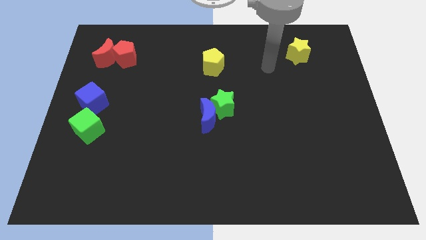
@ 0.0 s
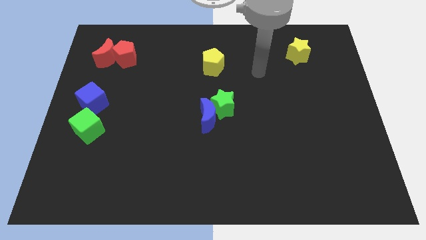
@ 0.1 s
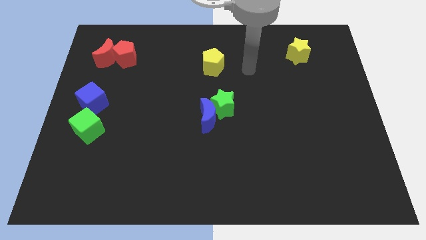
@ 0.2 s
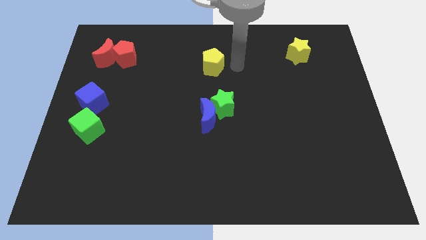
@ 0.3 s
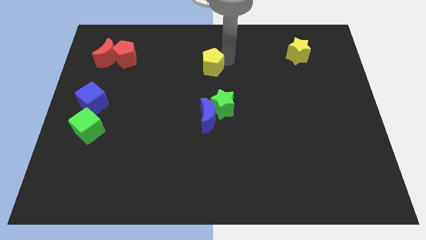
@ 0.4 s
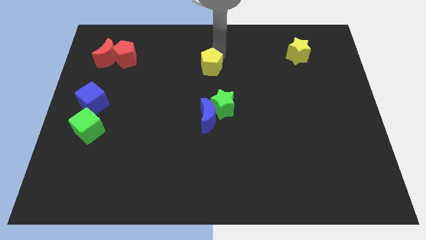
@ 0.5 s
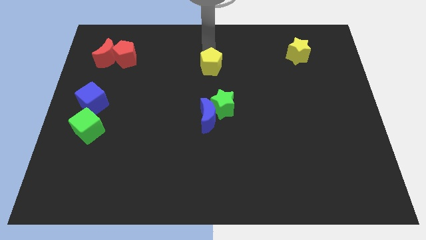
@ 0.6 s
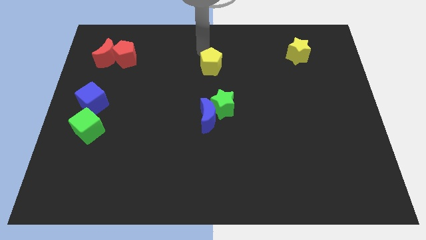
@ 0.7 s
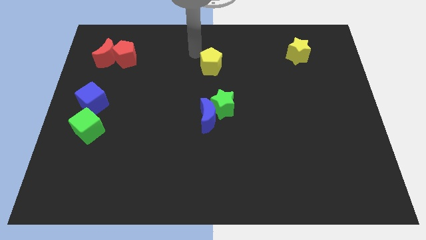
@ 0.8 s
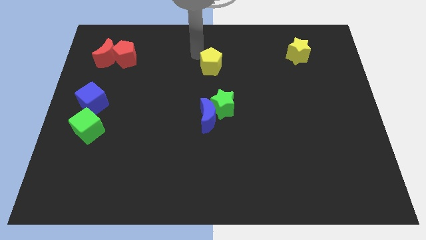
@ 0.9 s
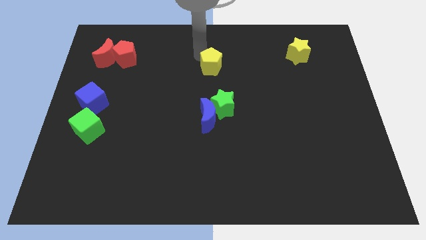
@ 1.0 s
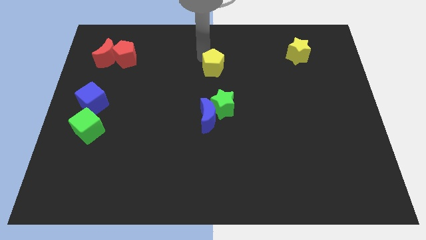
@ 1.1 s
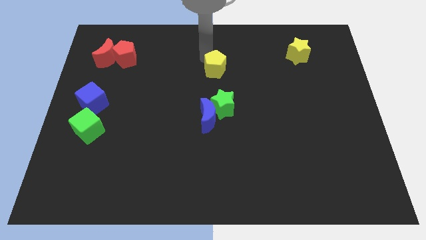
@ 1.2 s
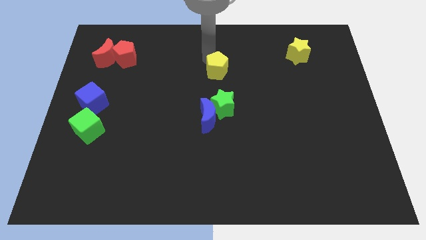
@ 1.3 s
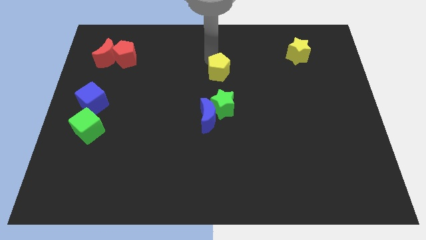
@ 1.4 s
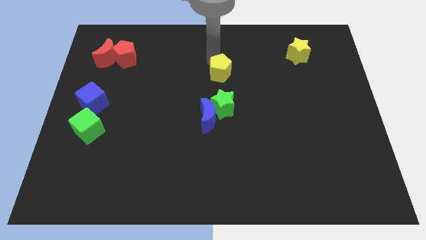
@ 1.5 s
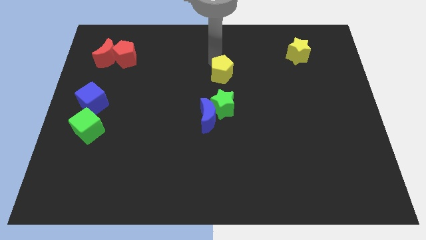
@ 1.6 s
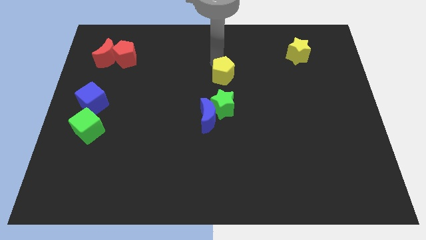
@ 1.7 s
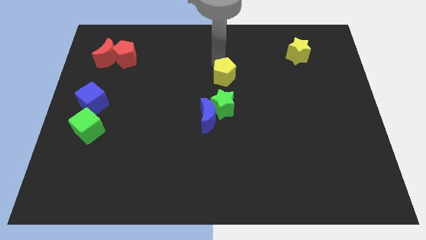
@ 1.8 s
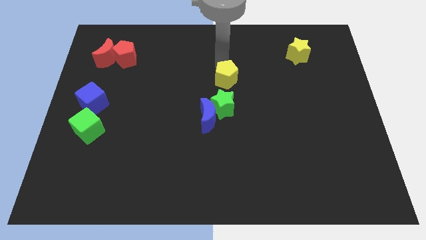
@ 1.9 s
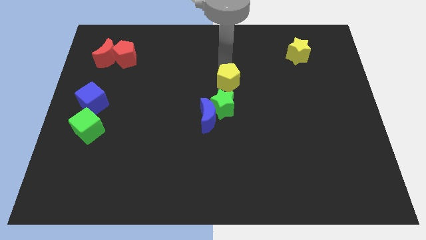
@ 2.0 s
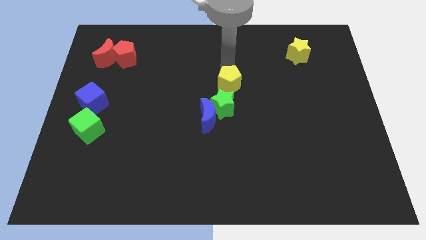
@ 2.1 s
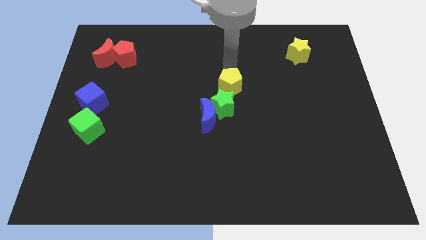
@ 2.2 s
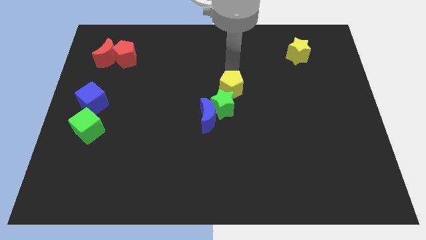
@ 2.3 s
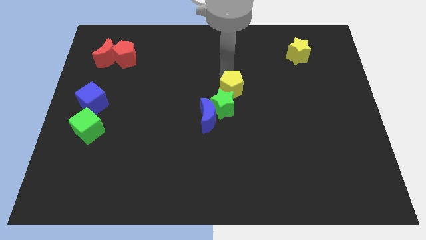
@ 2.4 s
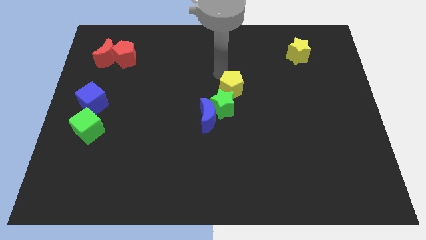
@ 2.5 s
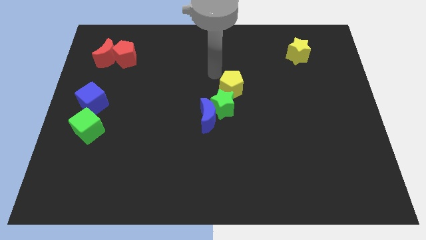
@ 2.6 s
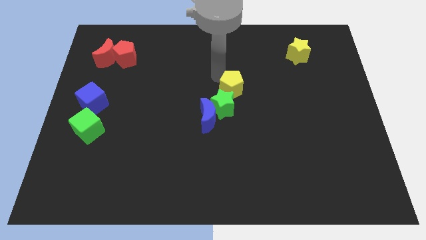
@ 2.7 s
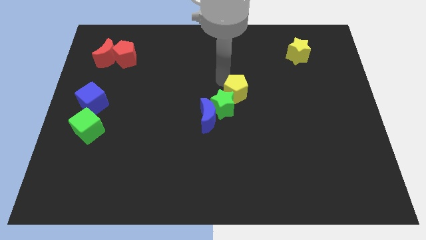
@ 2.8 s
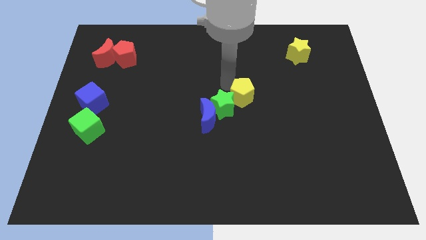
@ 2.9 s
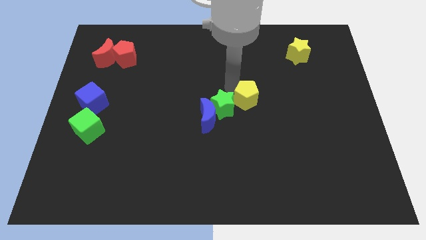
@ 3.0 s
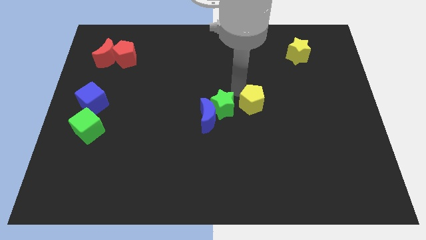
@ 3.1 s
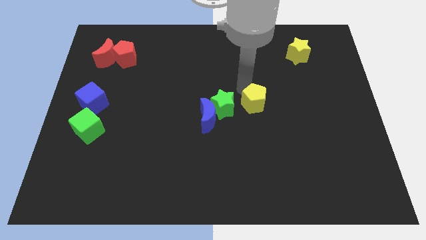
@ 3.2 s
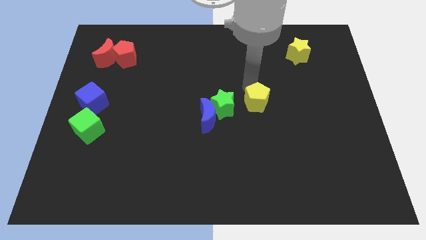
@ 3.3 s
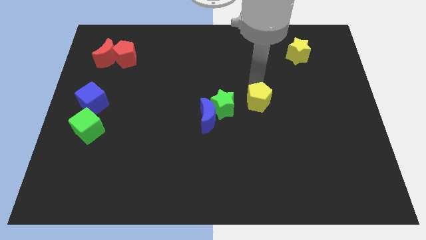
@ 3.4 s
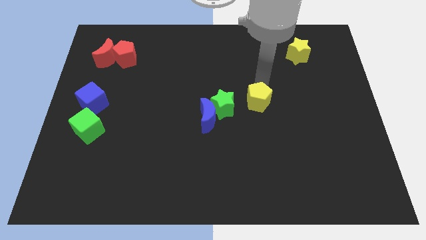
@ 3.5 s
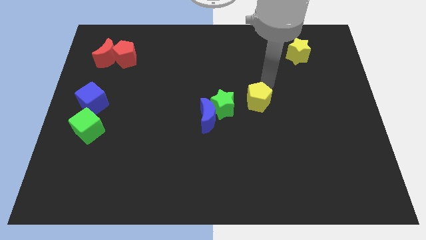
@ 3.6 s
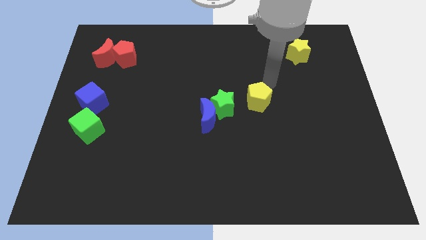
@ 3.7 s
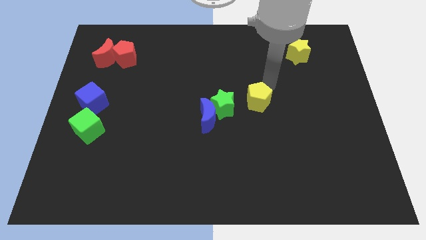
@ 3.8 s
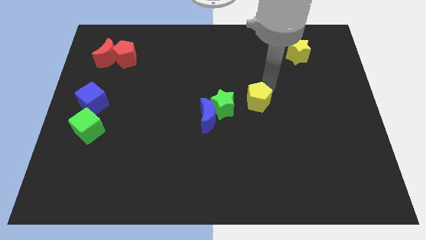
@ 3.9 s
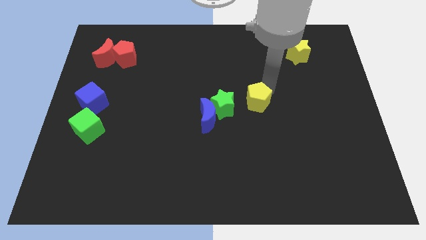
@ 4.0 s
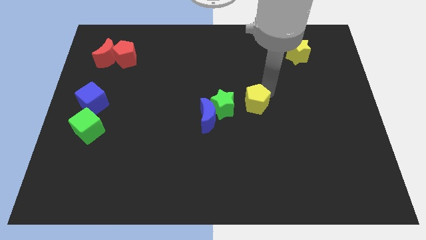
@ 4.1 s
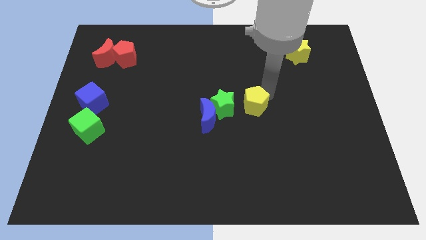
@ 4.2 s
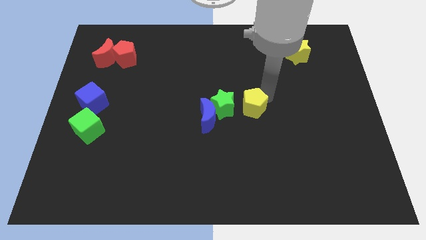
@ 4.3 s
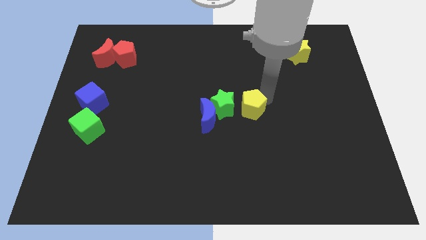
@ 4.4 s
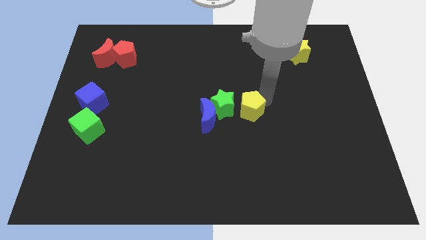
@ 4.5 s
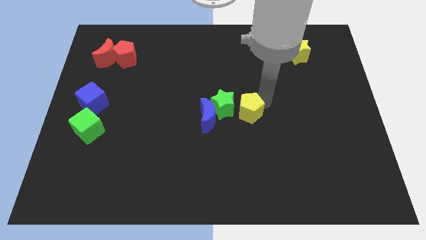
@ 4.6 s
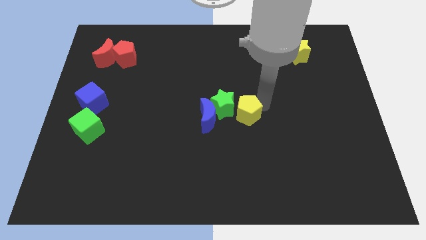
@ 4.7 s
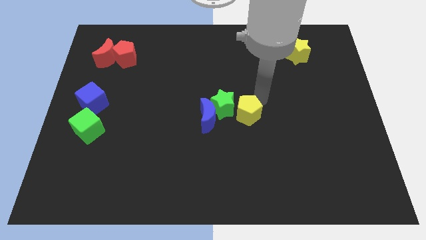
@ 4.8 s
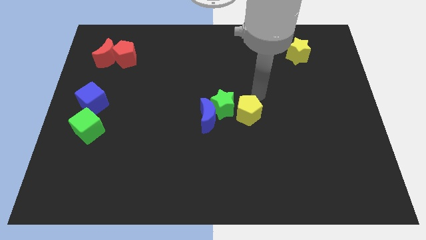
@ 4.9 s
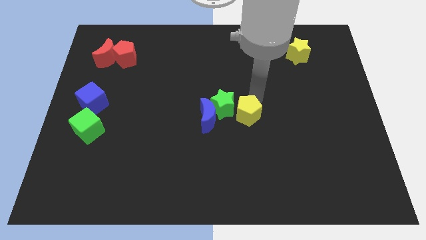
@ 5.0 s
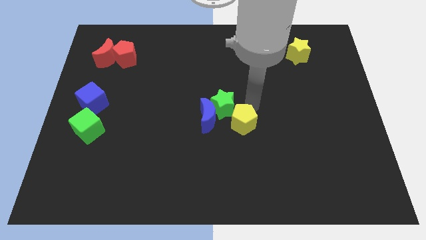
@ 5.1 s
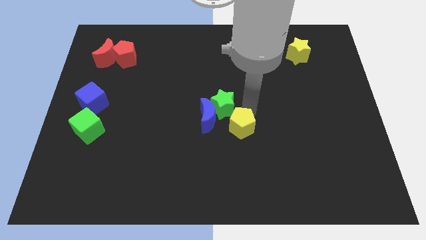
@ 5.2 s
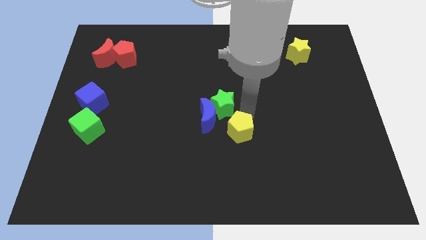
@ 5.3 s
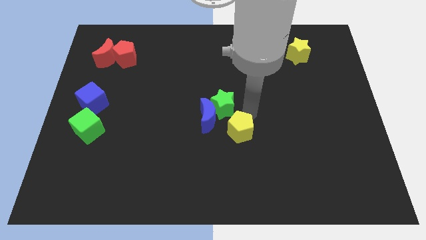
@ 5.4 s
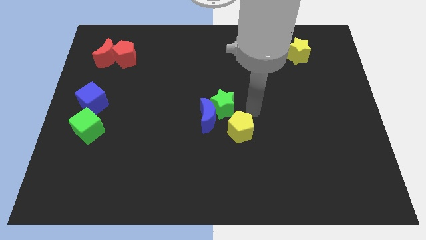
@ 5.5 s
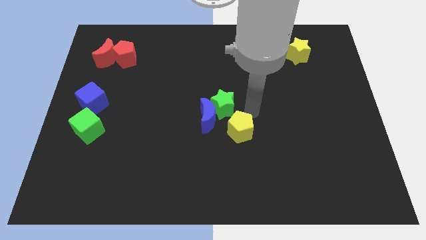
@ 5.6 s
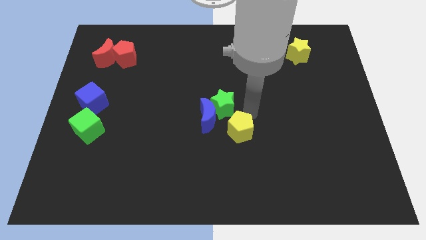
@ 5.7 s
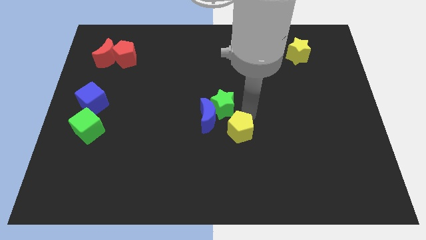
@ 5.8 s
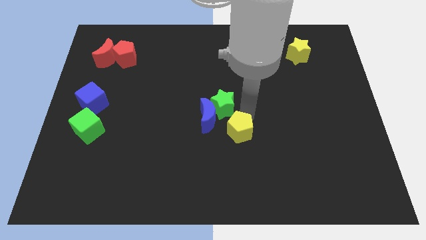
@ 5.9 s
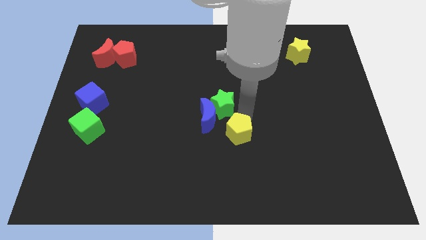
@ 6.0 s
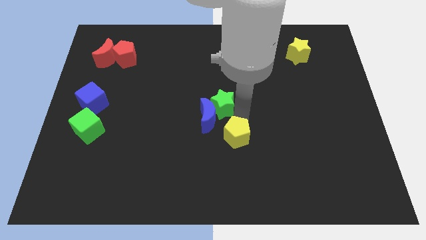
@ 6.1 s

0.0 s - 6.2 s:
push the yellow pentagon down

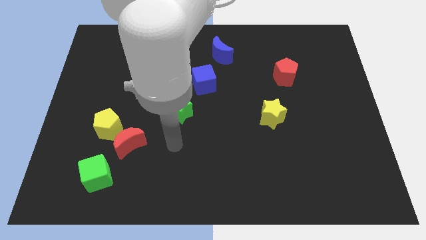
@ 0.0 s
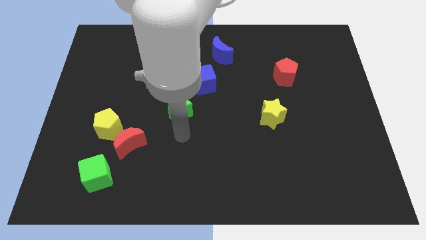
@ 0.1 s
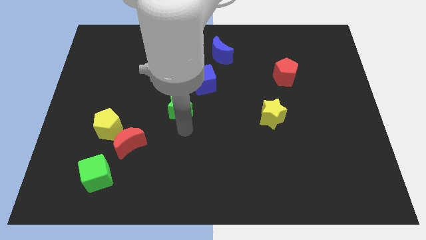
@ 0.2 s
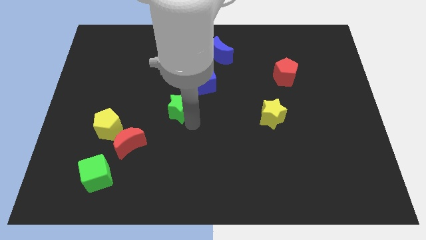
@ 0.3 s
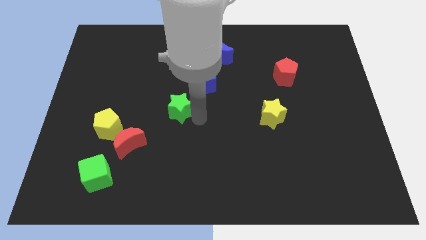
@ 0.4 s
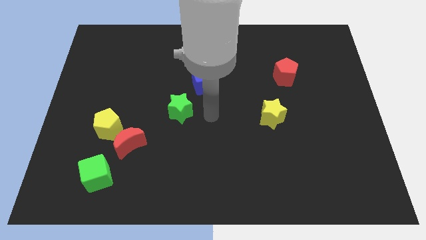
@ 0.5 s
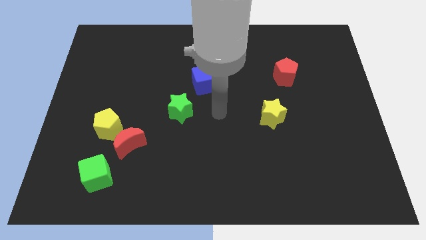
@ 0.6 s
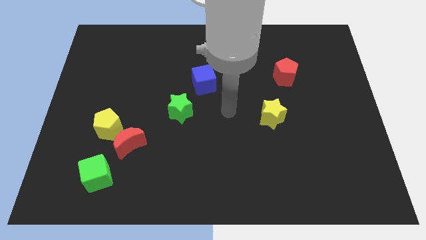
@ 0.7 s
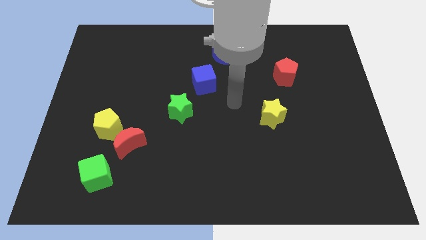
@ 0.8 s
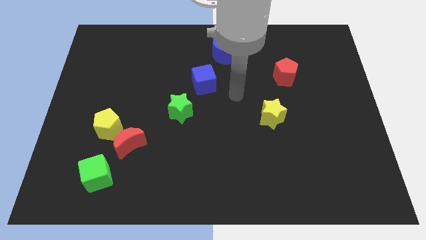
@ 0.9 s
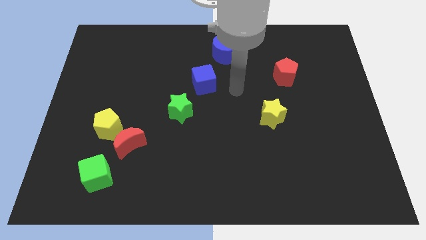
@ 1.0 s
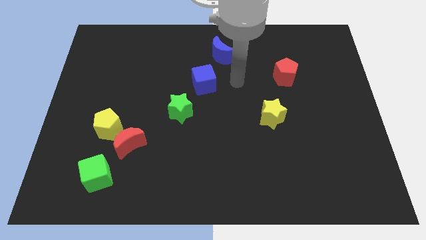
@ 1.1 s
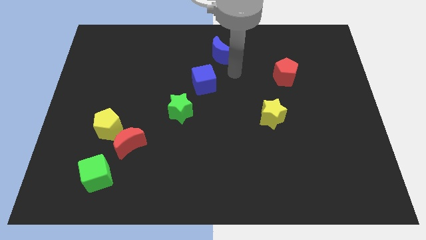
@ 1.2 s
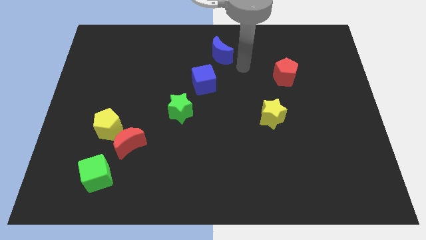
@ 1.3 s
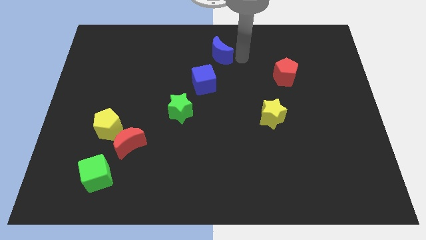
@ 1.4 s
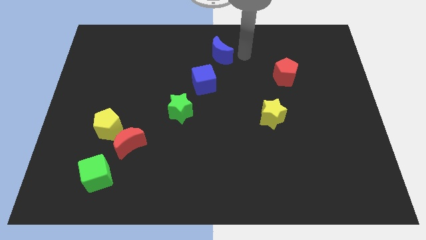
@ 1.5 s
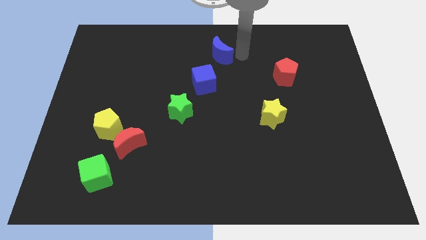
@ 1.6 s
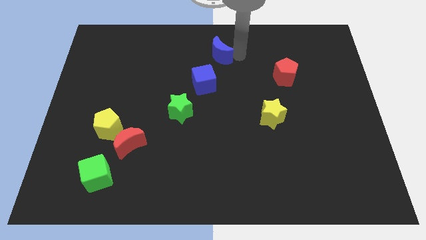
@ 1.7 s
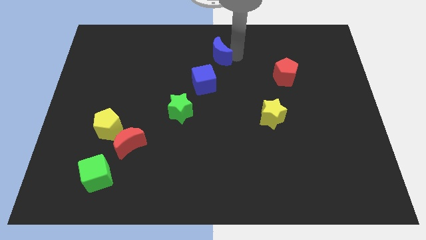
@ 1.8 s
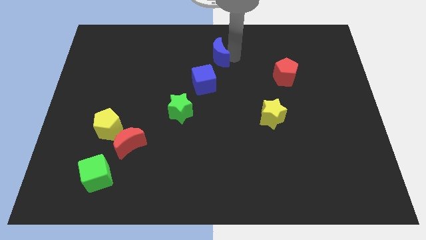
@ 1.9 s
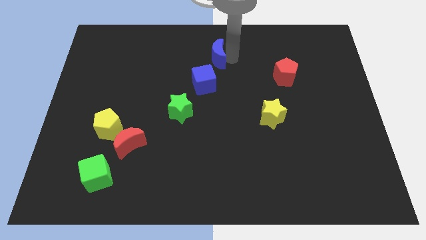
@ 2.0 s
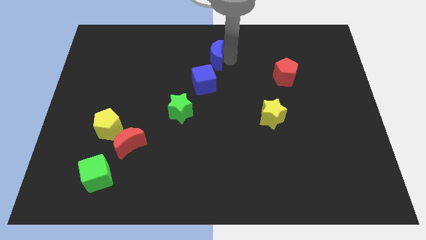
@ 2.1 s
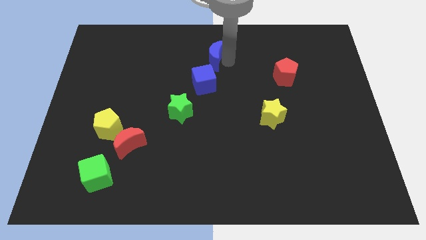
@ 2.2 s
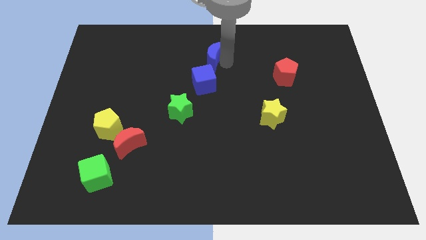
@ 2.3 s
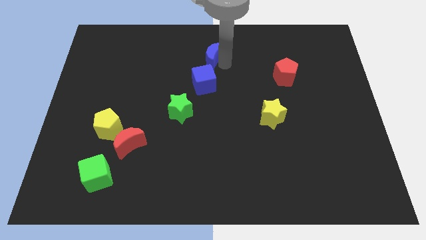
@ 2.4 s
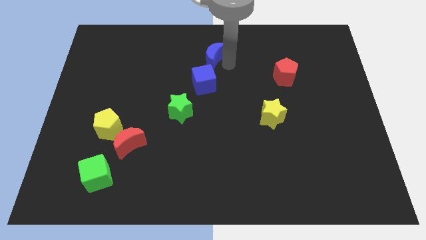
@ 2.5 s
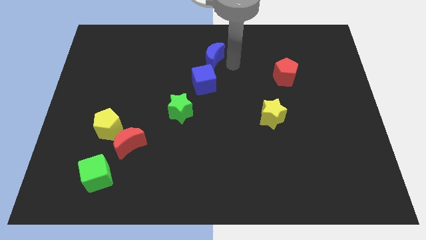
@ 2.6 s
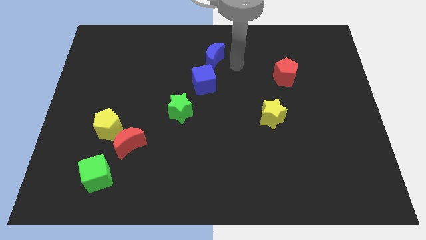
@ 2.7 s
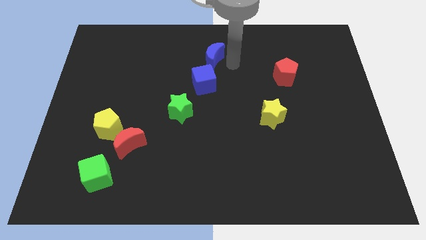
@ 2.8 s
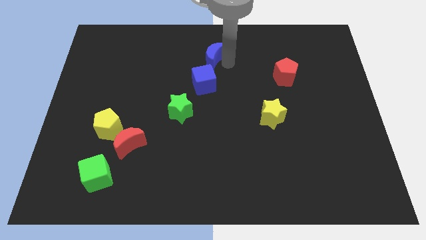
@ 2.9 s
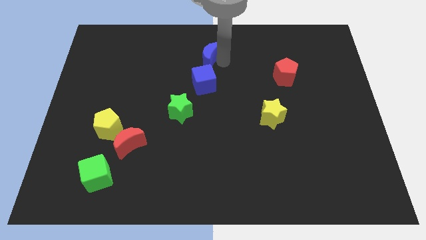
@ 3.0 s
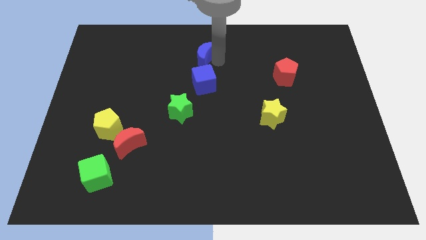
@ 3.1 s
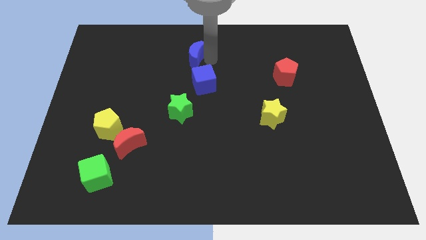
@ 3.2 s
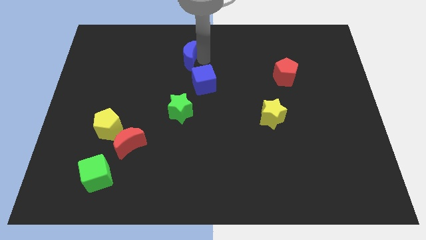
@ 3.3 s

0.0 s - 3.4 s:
move the blue moon to the left a little
